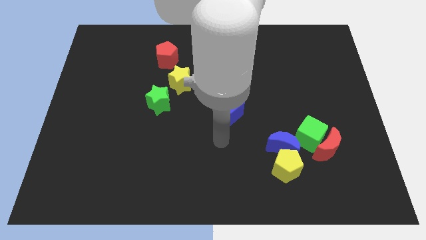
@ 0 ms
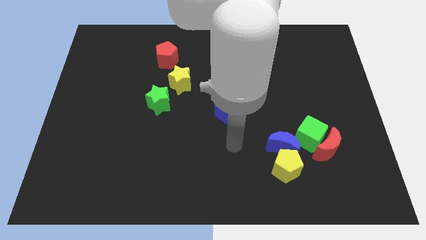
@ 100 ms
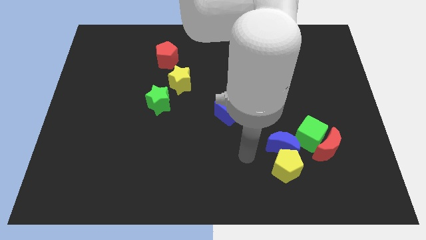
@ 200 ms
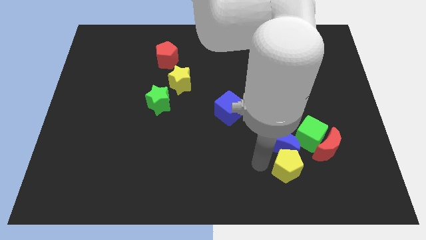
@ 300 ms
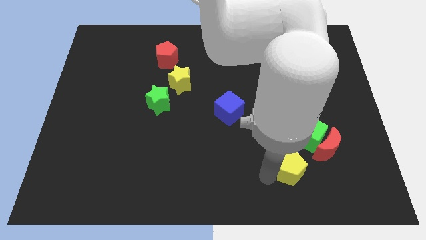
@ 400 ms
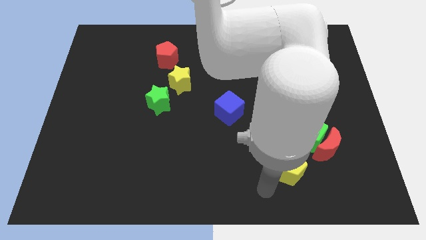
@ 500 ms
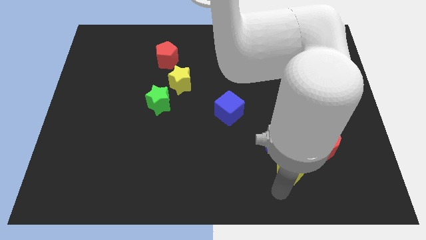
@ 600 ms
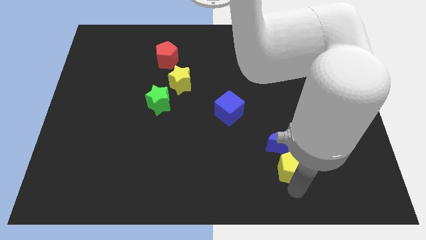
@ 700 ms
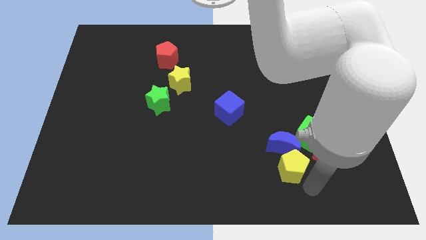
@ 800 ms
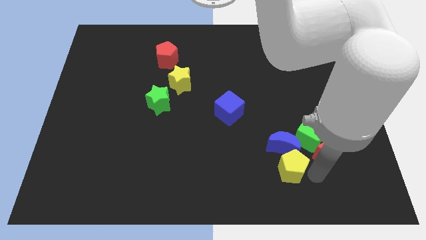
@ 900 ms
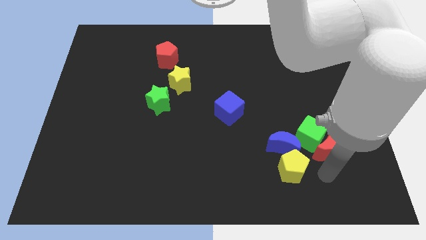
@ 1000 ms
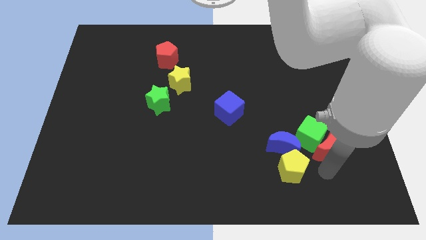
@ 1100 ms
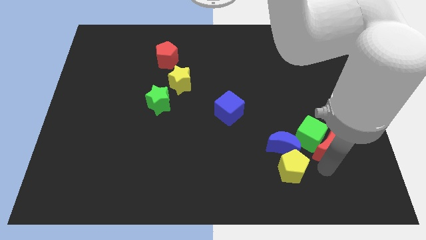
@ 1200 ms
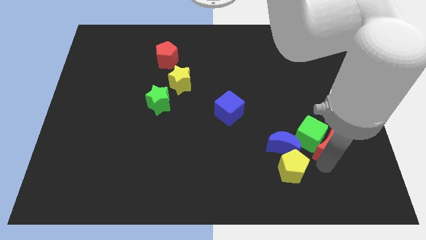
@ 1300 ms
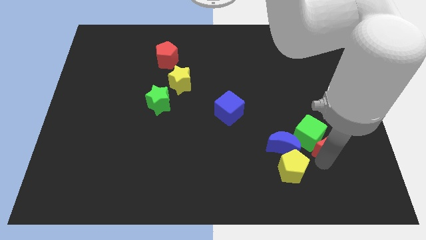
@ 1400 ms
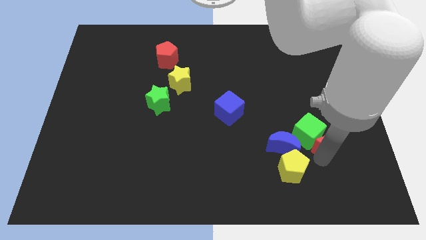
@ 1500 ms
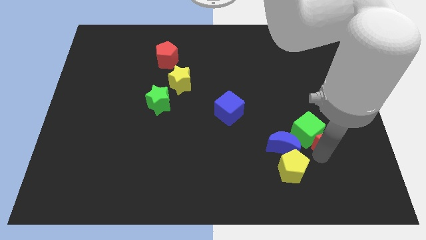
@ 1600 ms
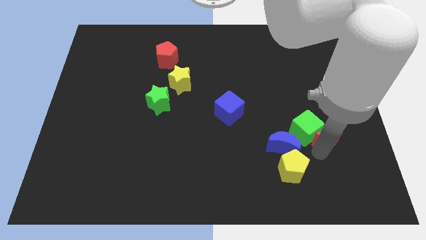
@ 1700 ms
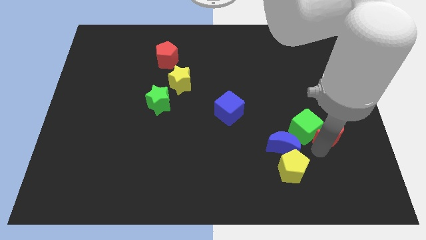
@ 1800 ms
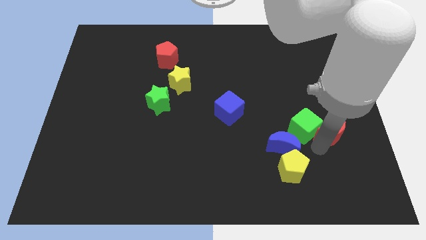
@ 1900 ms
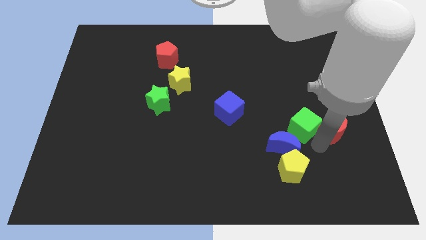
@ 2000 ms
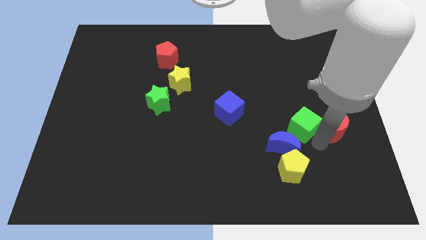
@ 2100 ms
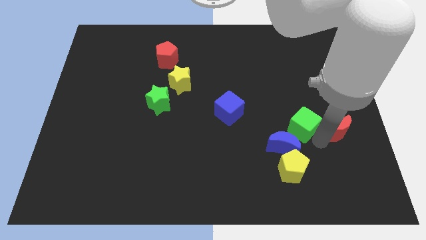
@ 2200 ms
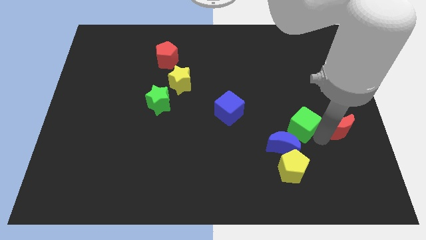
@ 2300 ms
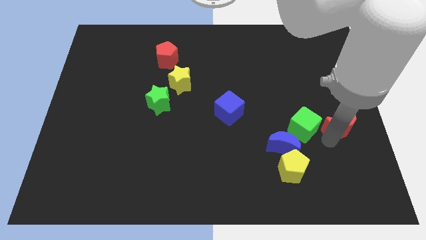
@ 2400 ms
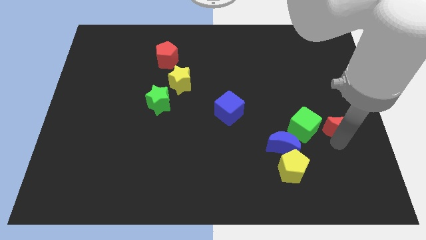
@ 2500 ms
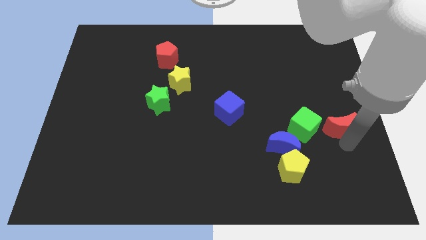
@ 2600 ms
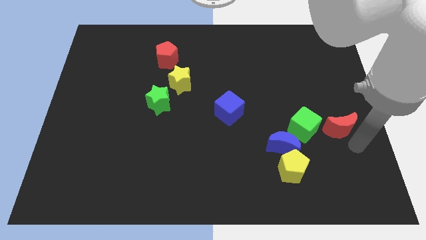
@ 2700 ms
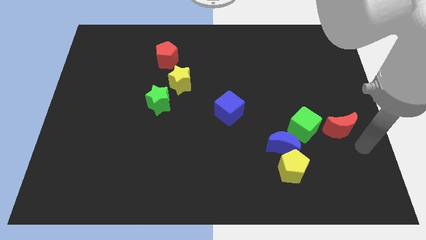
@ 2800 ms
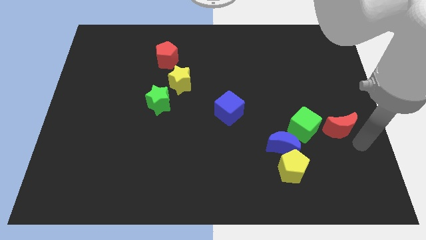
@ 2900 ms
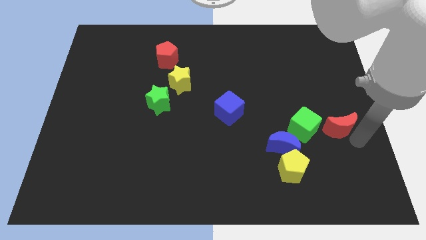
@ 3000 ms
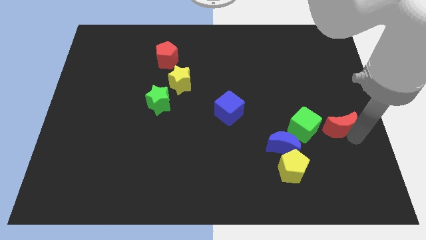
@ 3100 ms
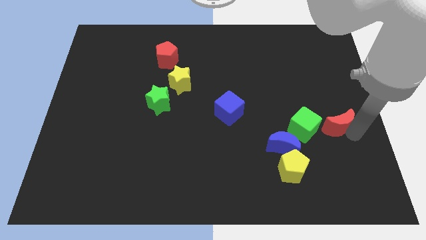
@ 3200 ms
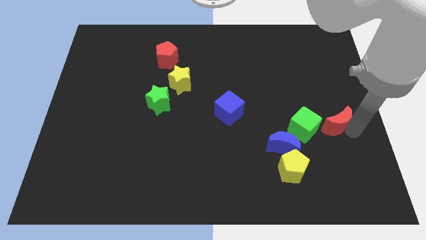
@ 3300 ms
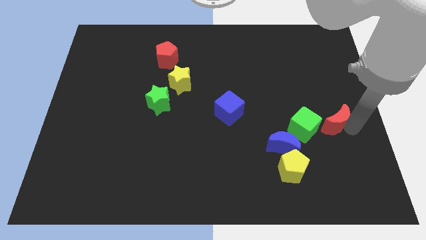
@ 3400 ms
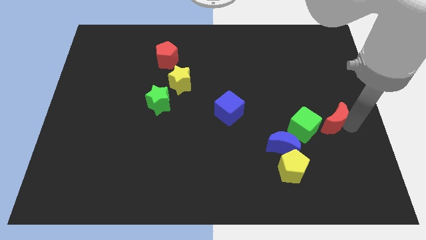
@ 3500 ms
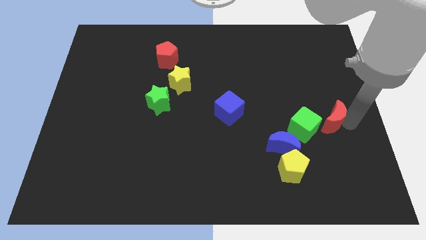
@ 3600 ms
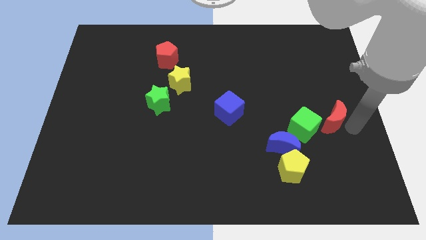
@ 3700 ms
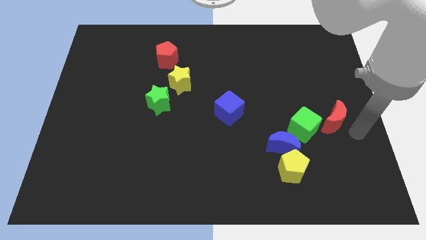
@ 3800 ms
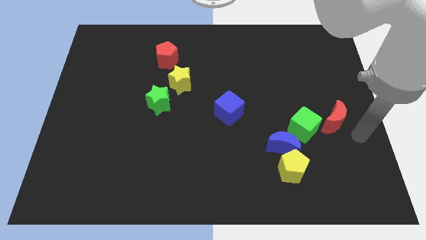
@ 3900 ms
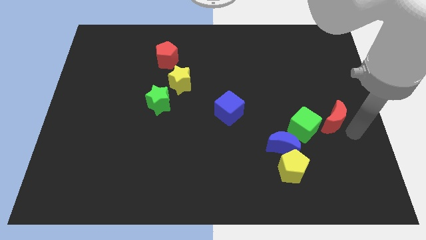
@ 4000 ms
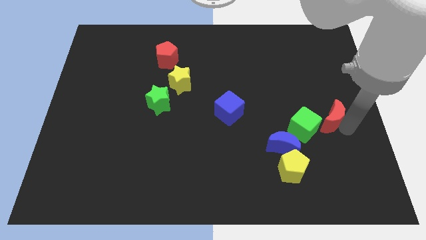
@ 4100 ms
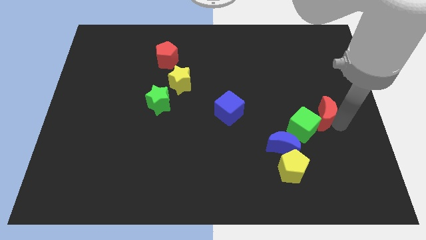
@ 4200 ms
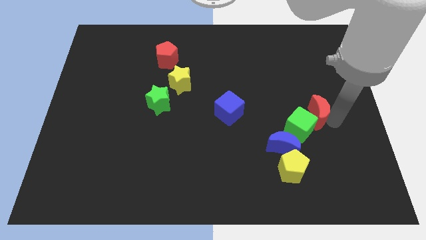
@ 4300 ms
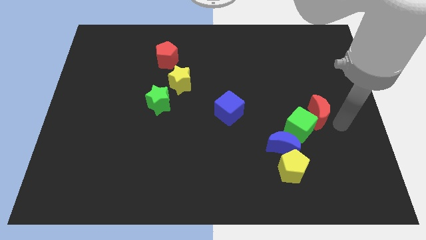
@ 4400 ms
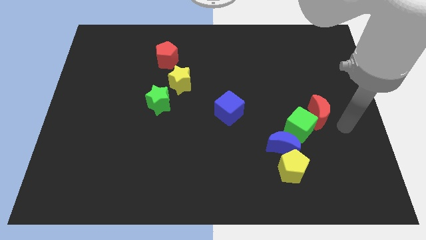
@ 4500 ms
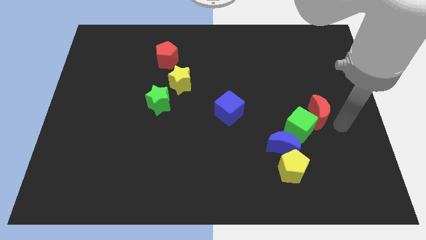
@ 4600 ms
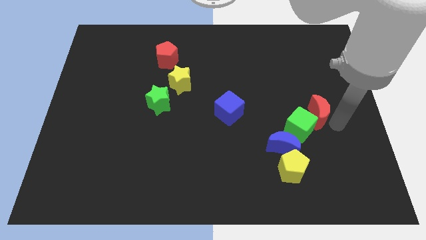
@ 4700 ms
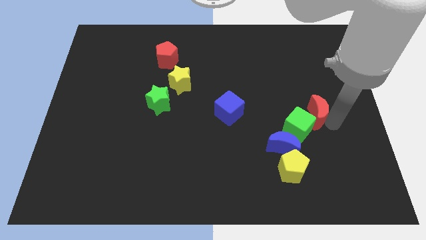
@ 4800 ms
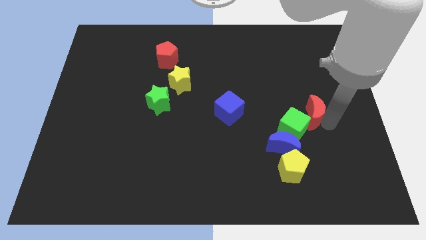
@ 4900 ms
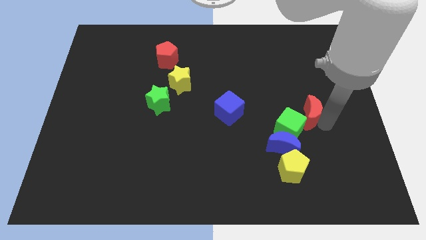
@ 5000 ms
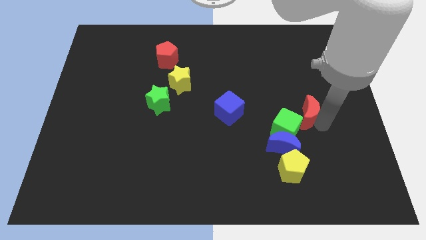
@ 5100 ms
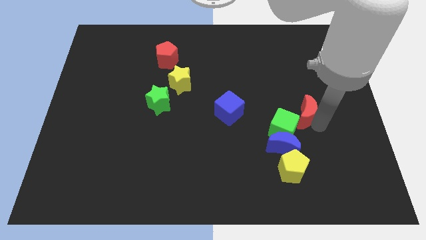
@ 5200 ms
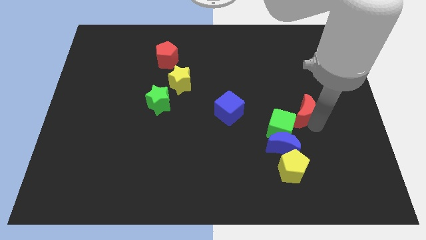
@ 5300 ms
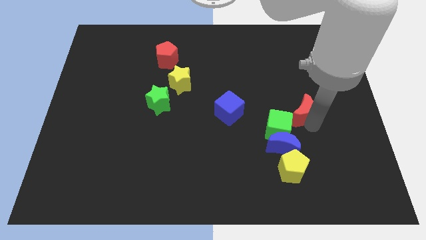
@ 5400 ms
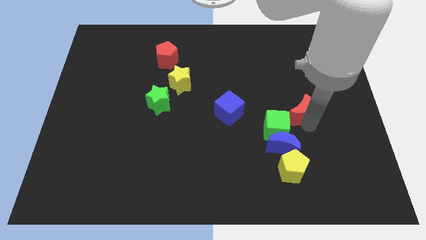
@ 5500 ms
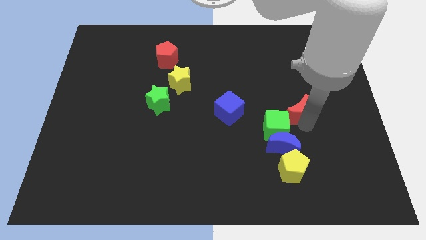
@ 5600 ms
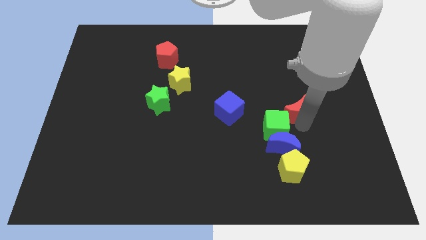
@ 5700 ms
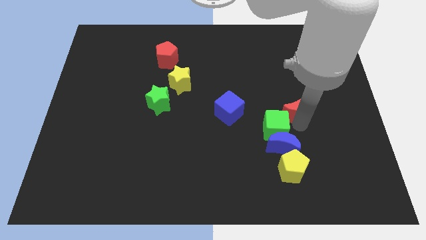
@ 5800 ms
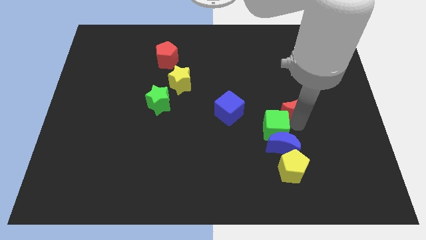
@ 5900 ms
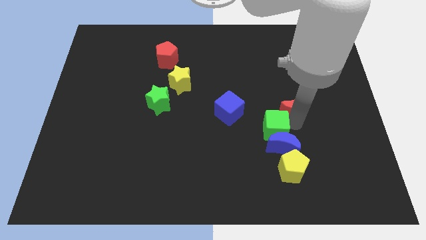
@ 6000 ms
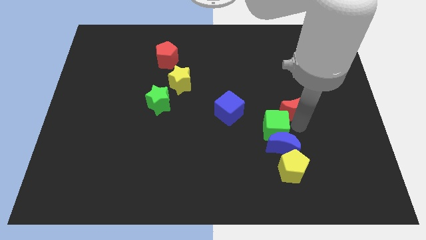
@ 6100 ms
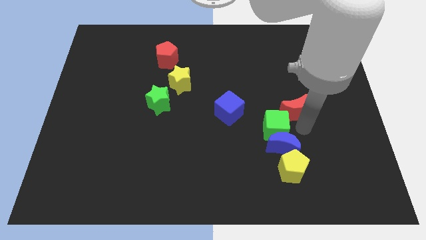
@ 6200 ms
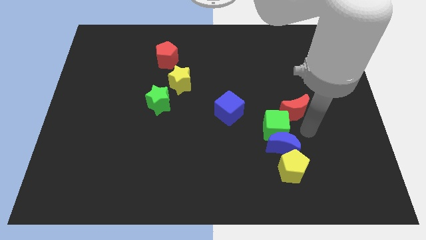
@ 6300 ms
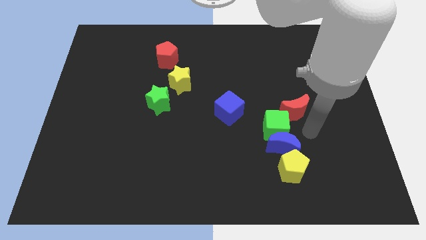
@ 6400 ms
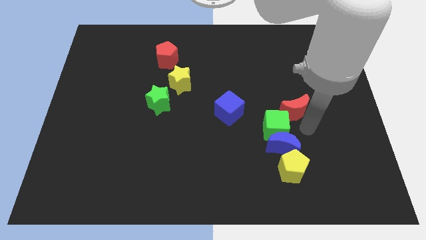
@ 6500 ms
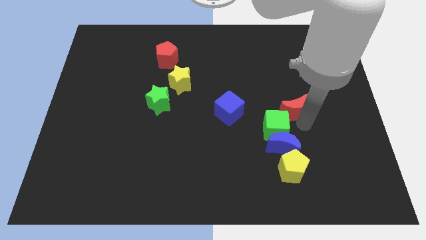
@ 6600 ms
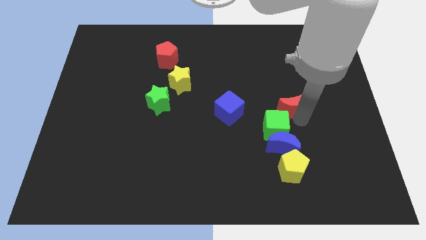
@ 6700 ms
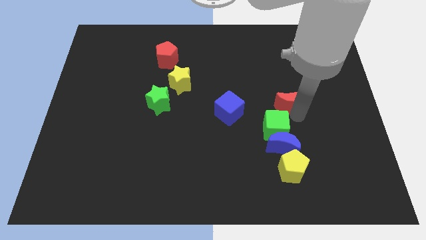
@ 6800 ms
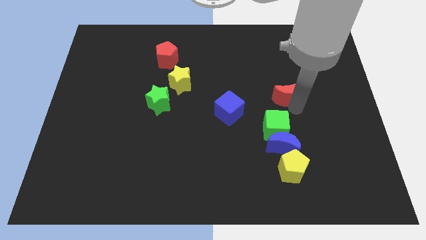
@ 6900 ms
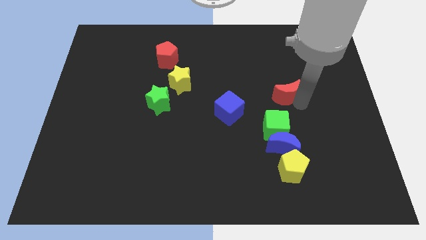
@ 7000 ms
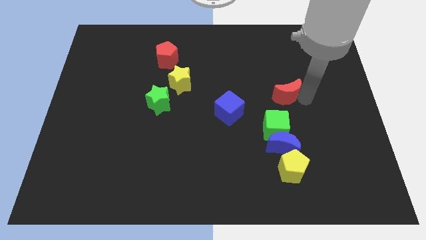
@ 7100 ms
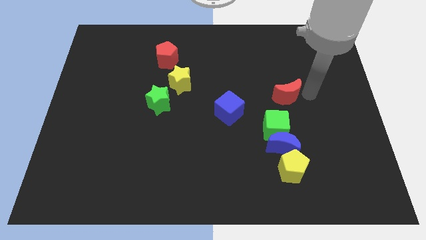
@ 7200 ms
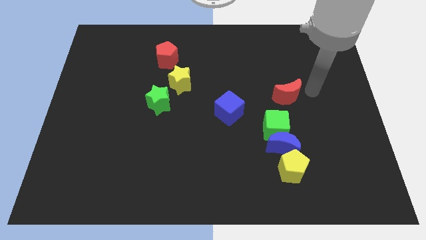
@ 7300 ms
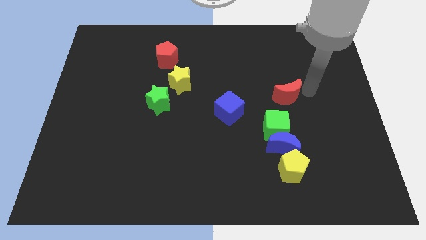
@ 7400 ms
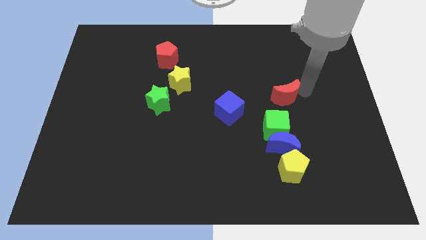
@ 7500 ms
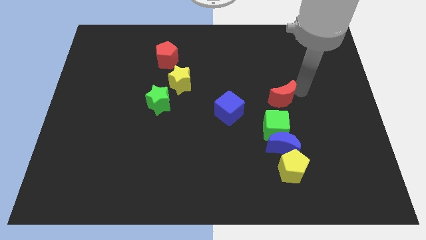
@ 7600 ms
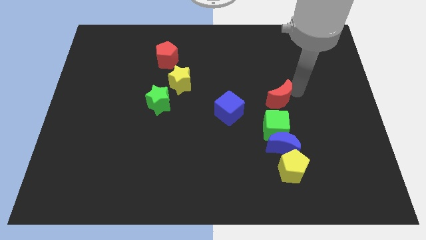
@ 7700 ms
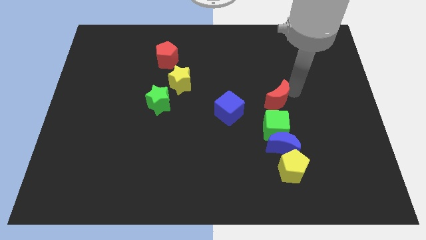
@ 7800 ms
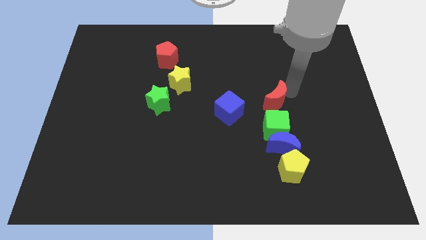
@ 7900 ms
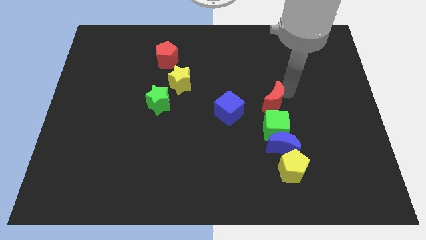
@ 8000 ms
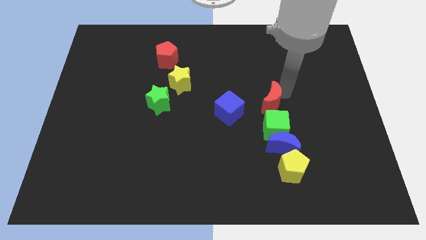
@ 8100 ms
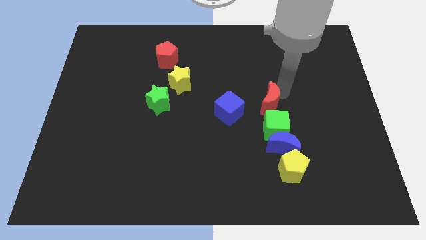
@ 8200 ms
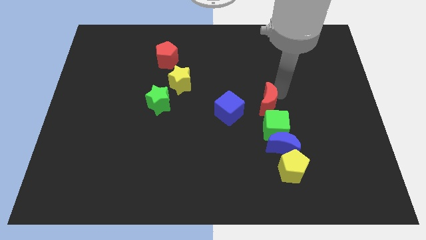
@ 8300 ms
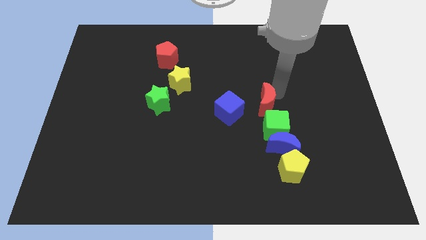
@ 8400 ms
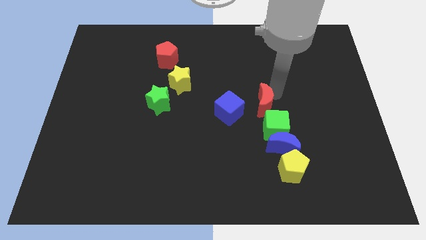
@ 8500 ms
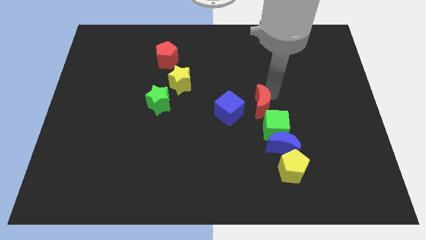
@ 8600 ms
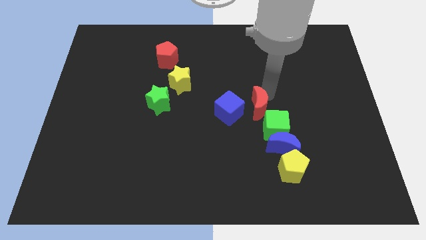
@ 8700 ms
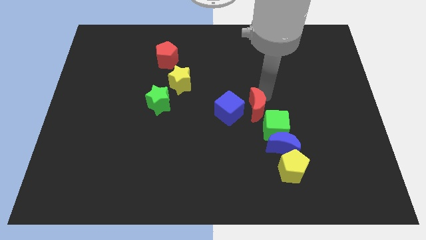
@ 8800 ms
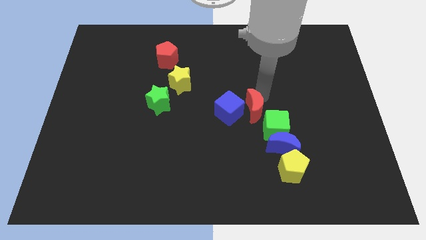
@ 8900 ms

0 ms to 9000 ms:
push the red moon next to the blue cube
